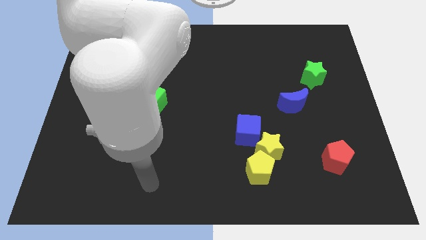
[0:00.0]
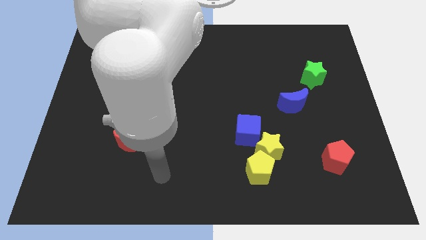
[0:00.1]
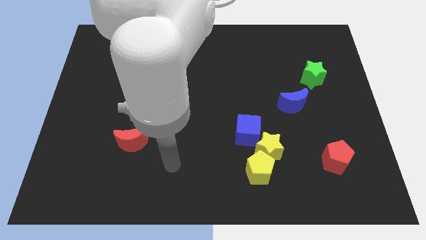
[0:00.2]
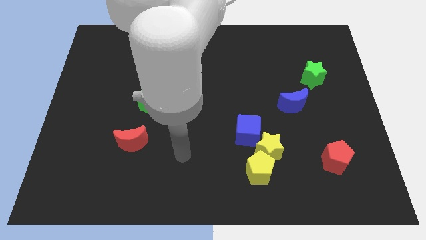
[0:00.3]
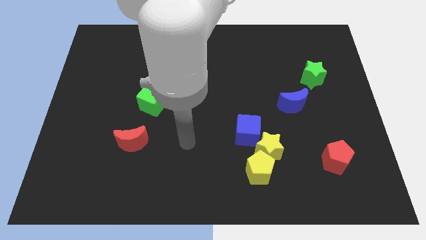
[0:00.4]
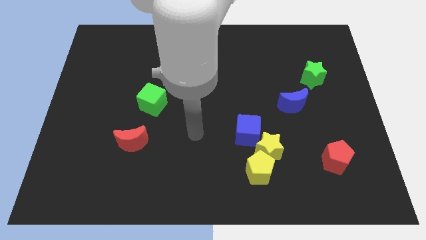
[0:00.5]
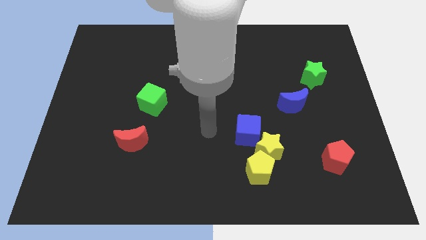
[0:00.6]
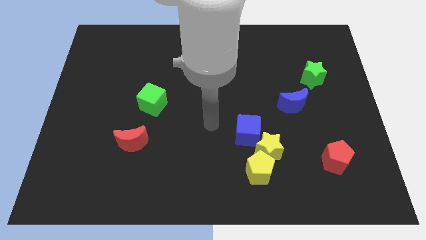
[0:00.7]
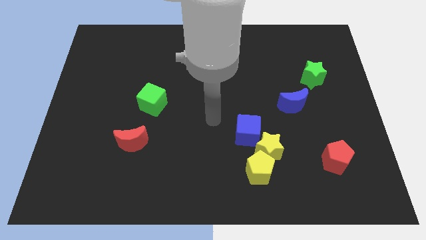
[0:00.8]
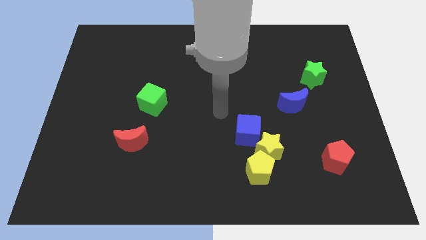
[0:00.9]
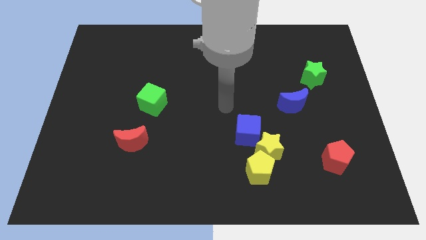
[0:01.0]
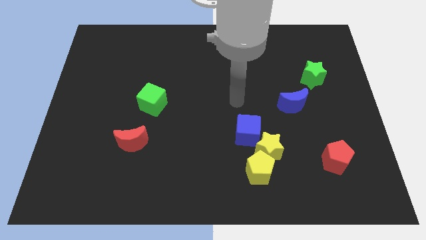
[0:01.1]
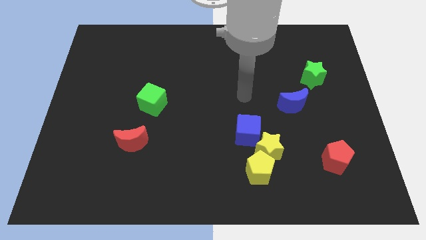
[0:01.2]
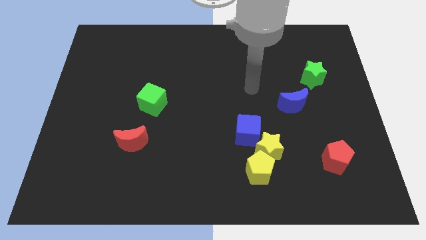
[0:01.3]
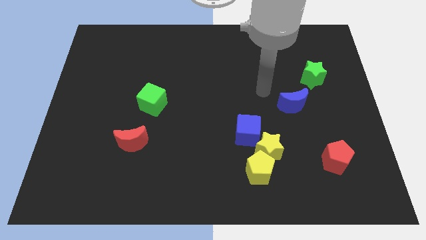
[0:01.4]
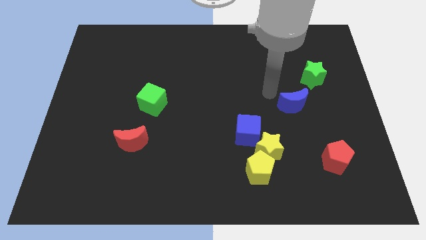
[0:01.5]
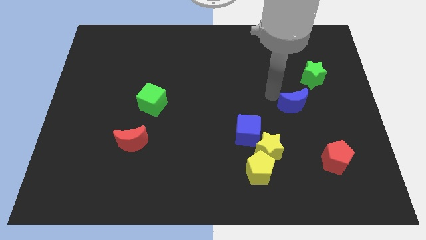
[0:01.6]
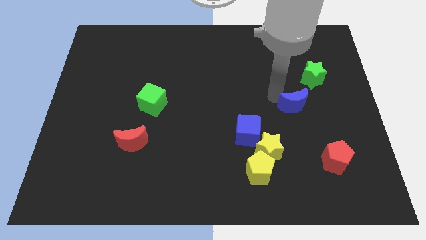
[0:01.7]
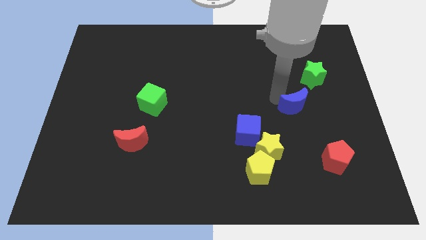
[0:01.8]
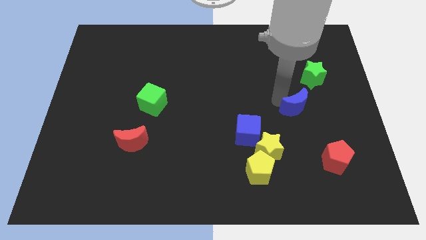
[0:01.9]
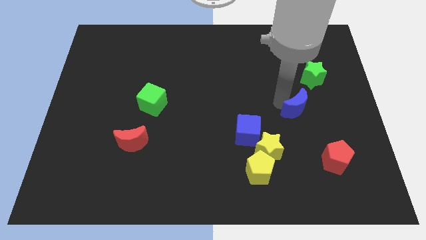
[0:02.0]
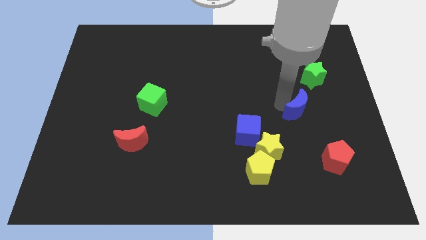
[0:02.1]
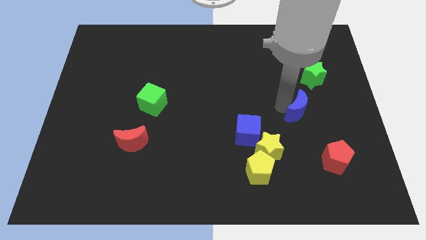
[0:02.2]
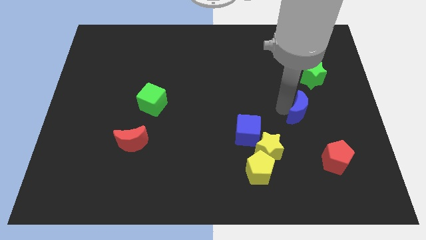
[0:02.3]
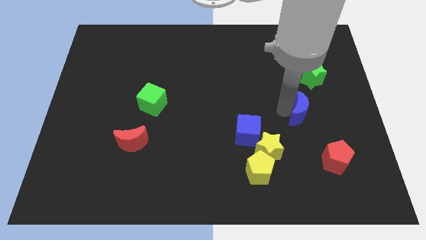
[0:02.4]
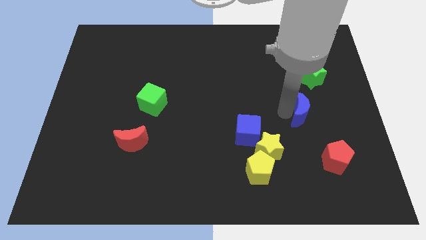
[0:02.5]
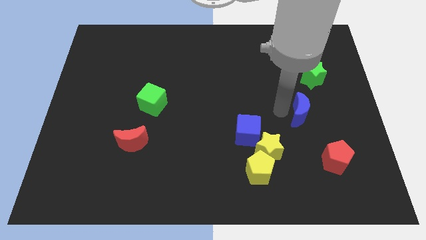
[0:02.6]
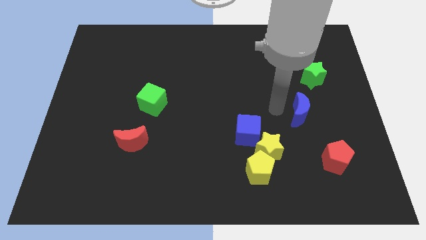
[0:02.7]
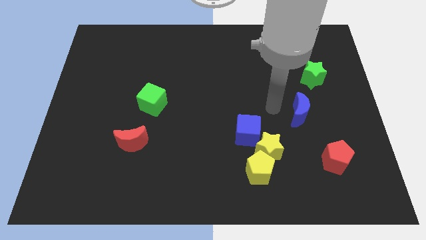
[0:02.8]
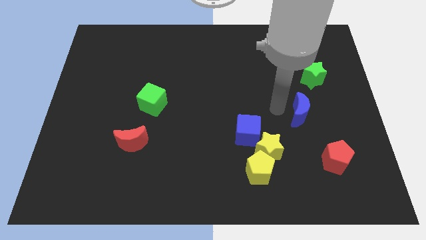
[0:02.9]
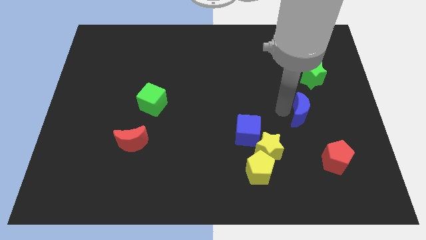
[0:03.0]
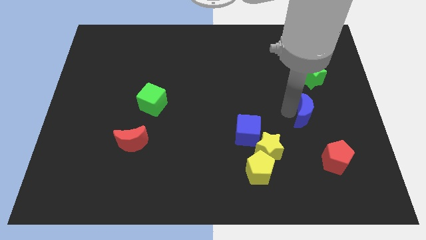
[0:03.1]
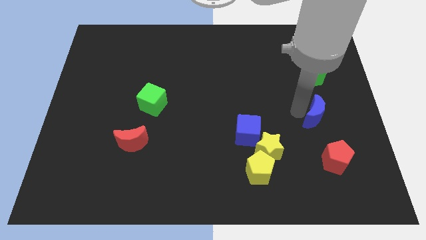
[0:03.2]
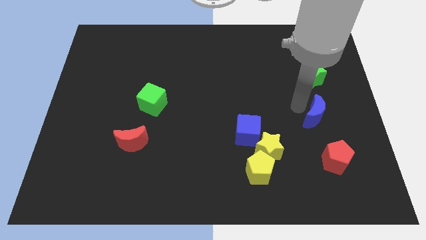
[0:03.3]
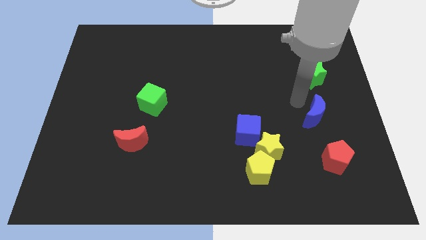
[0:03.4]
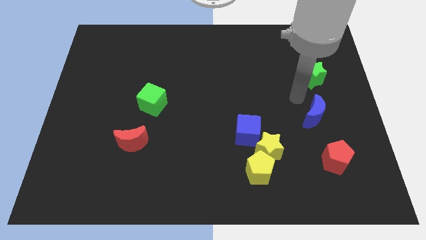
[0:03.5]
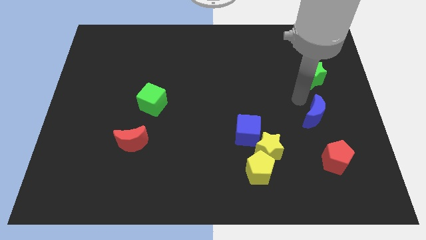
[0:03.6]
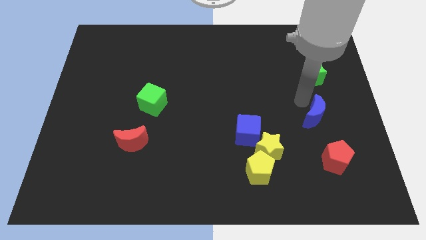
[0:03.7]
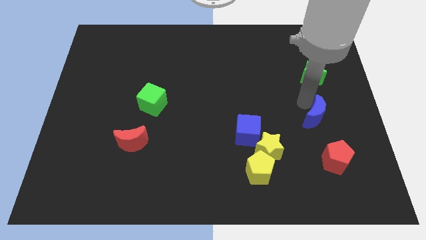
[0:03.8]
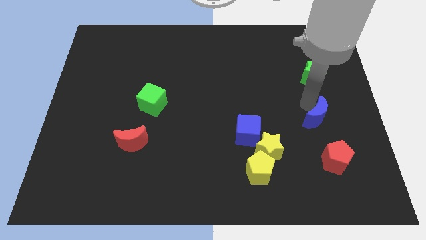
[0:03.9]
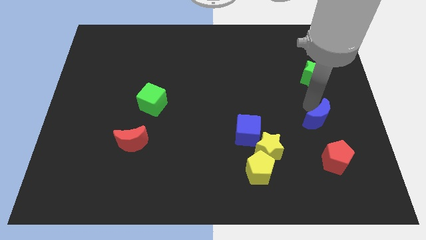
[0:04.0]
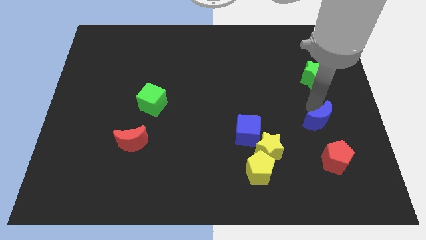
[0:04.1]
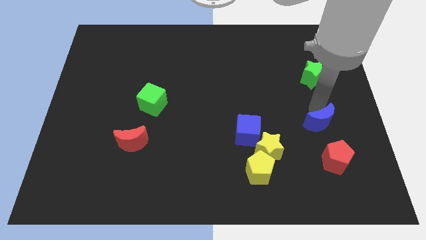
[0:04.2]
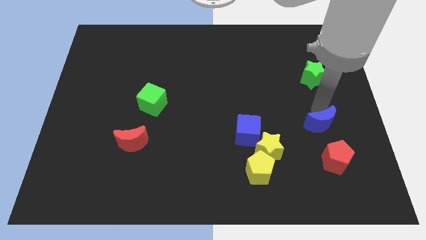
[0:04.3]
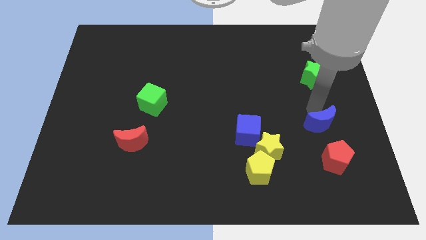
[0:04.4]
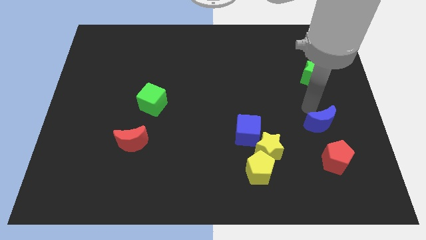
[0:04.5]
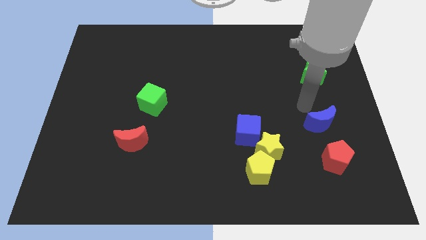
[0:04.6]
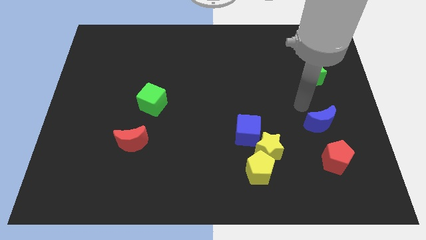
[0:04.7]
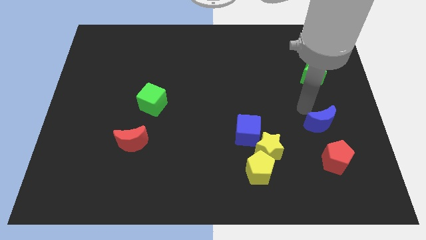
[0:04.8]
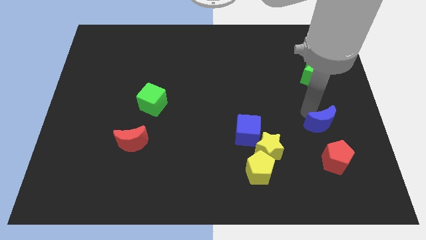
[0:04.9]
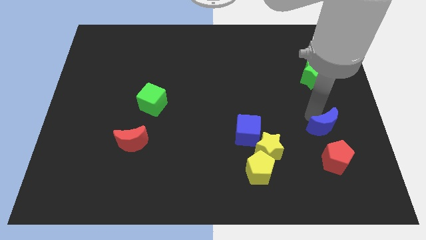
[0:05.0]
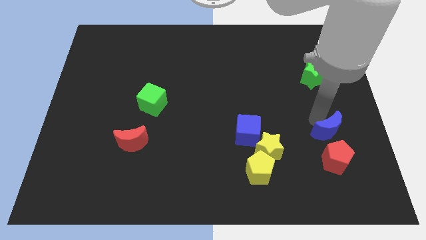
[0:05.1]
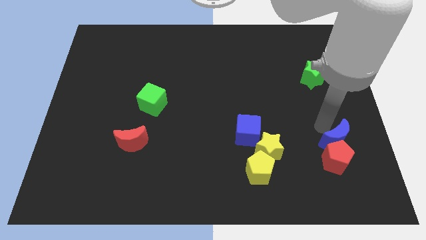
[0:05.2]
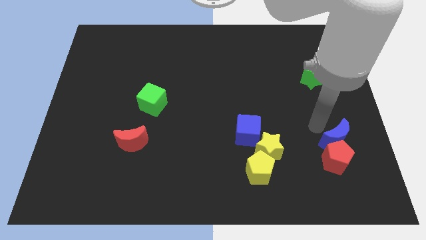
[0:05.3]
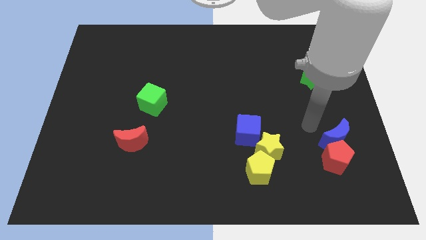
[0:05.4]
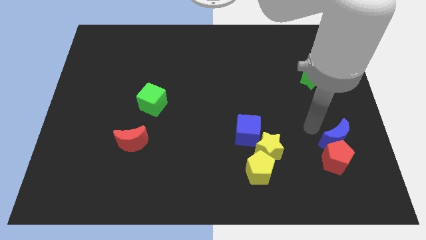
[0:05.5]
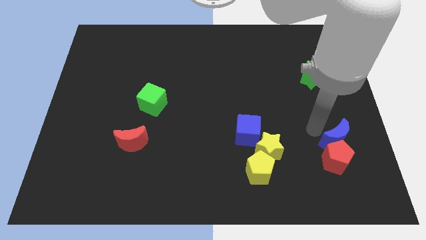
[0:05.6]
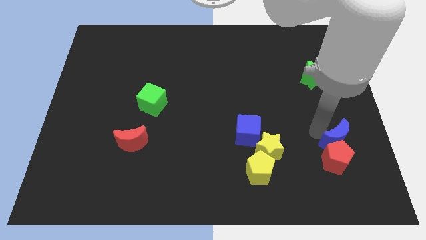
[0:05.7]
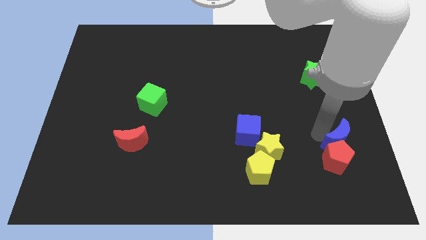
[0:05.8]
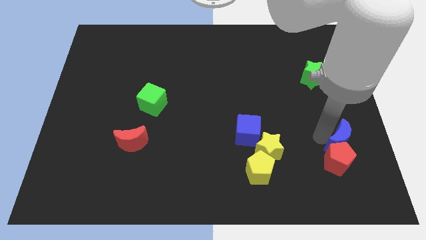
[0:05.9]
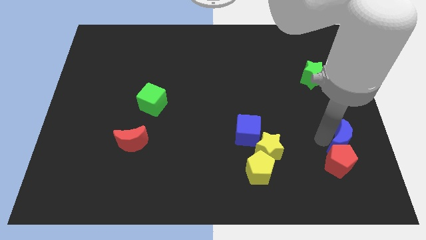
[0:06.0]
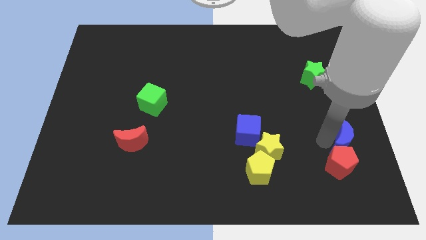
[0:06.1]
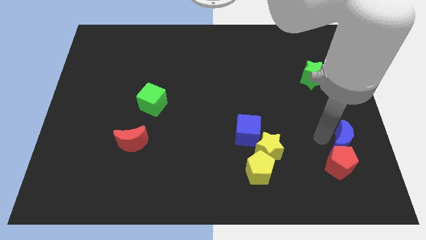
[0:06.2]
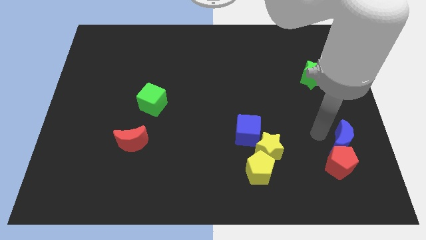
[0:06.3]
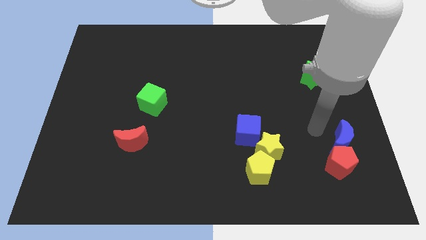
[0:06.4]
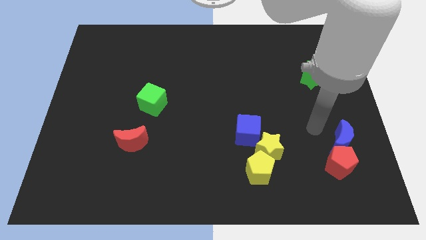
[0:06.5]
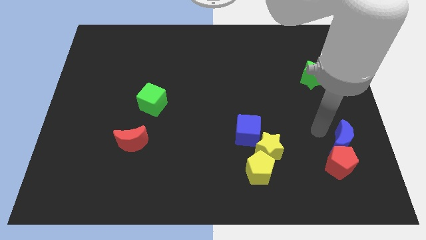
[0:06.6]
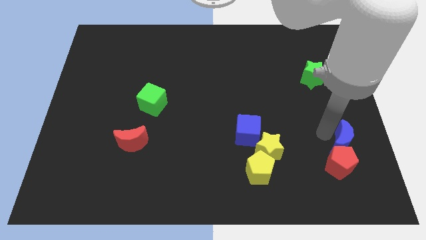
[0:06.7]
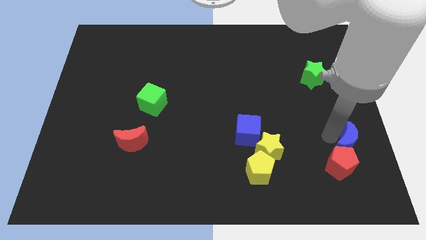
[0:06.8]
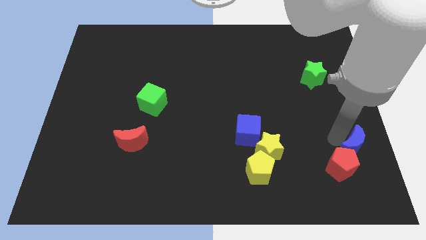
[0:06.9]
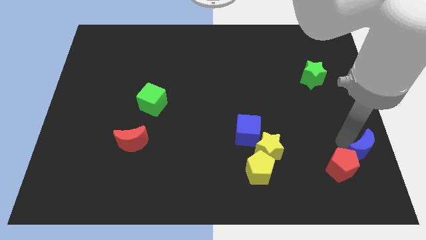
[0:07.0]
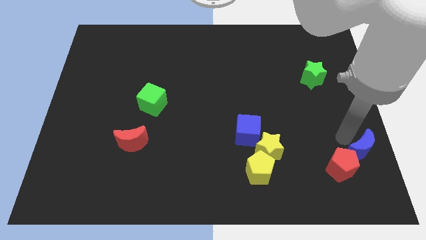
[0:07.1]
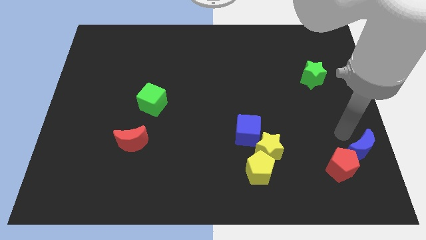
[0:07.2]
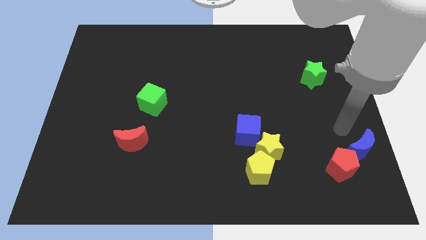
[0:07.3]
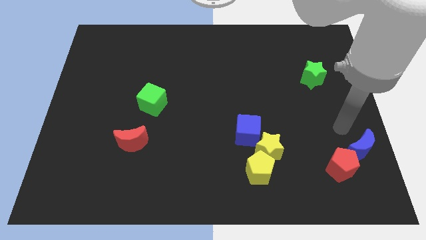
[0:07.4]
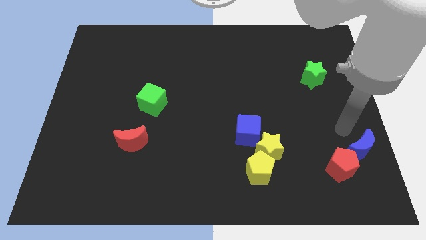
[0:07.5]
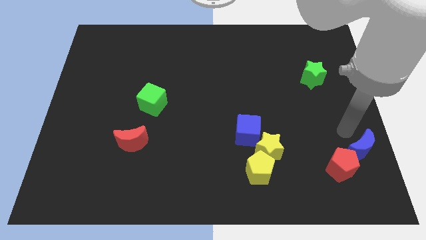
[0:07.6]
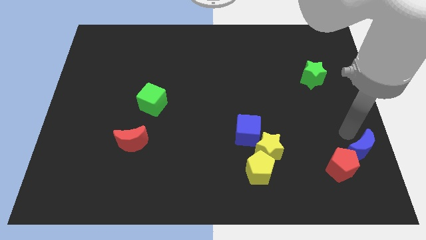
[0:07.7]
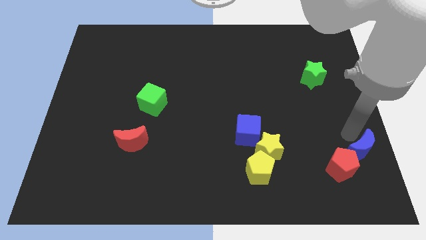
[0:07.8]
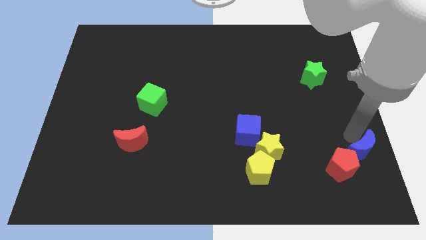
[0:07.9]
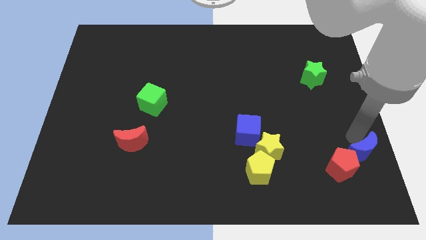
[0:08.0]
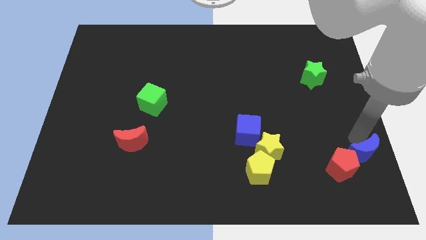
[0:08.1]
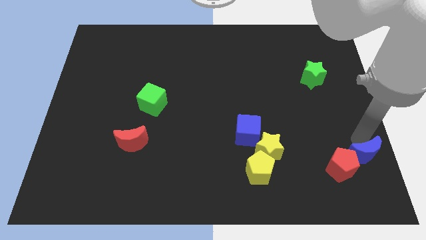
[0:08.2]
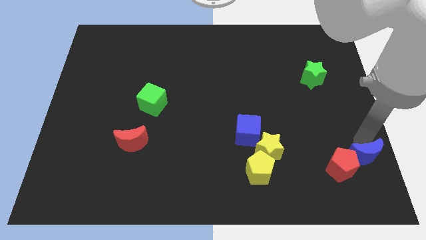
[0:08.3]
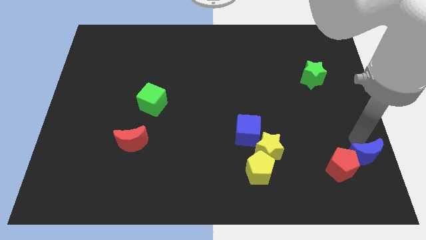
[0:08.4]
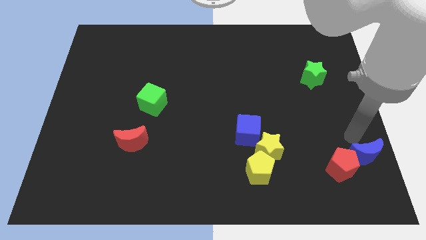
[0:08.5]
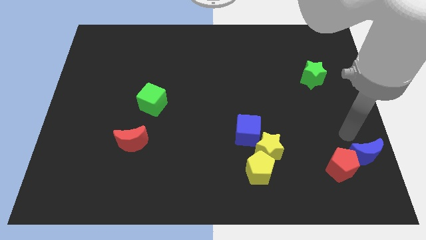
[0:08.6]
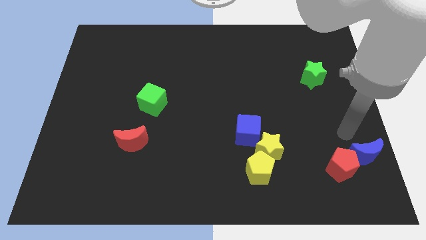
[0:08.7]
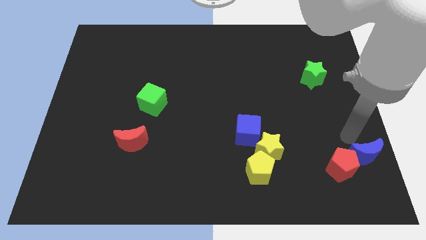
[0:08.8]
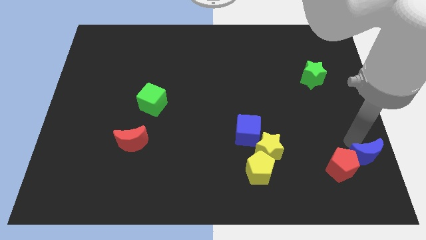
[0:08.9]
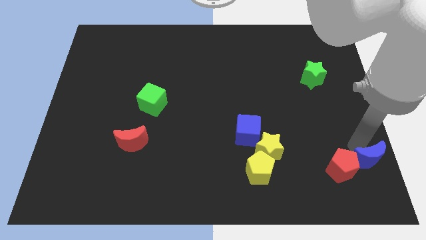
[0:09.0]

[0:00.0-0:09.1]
slide the blue moon to the lower right corner
